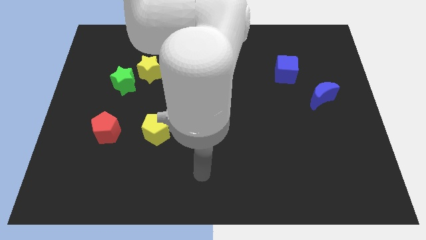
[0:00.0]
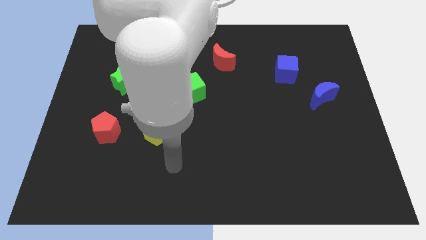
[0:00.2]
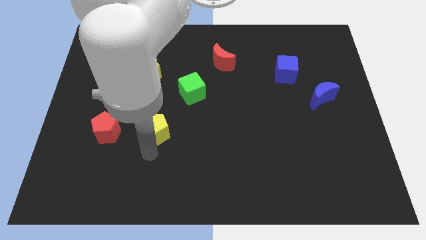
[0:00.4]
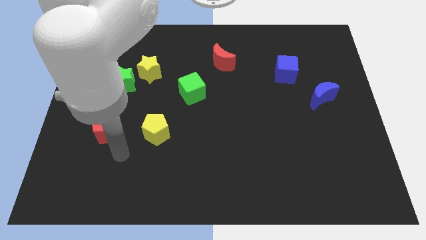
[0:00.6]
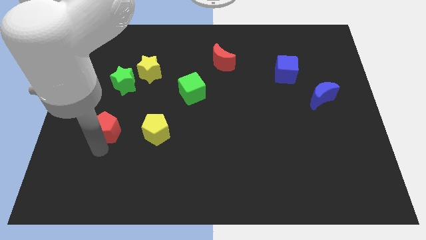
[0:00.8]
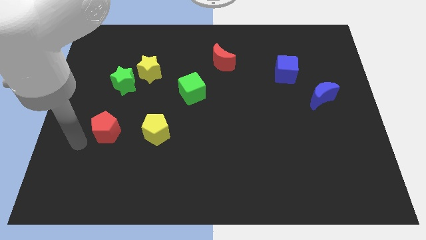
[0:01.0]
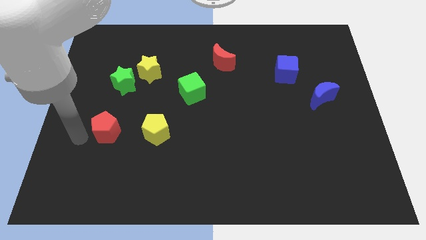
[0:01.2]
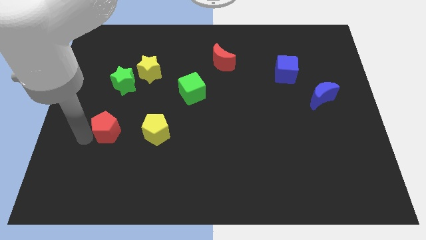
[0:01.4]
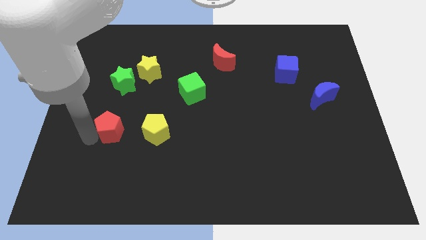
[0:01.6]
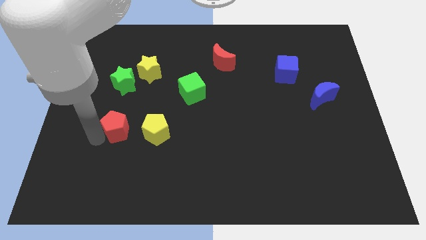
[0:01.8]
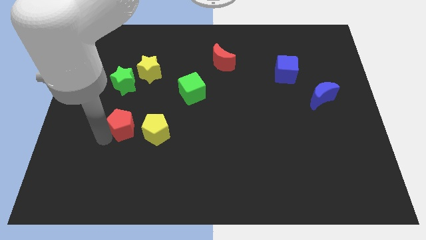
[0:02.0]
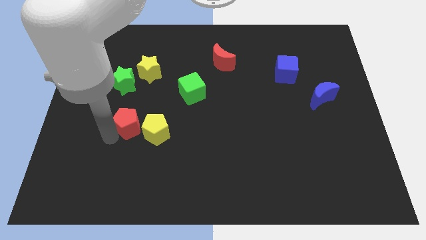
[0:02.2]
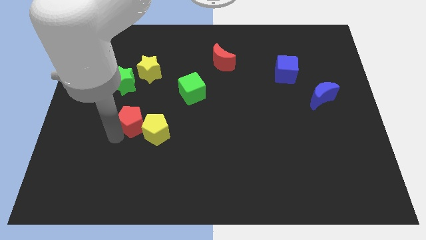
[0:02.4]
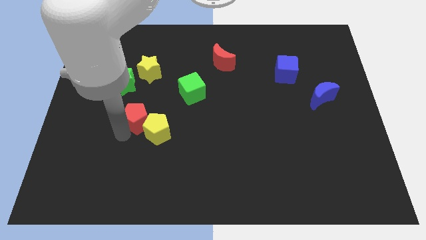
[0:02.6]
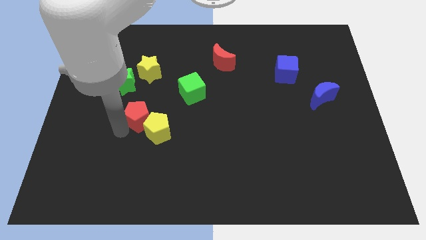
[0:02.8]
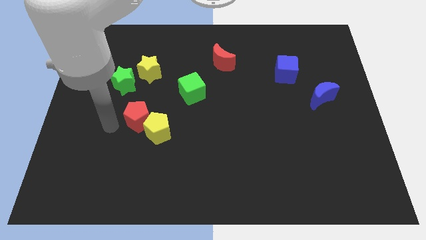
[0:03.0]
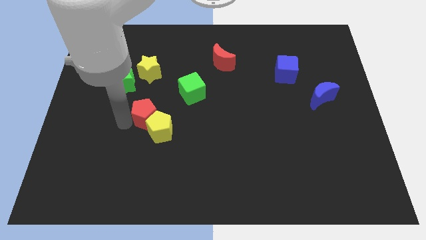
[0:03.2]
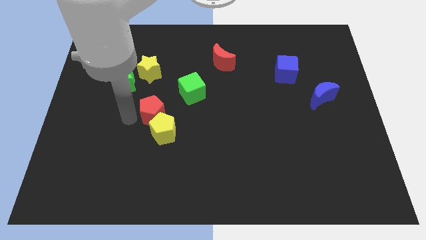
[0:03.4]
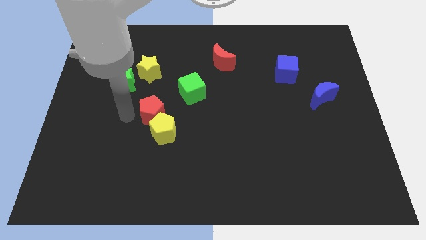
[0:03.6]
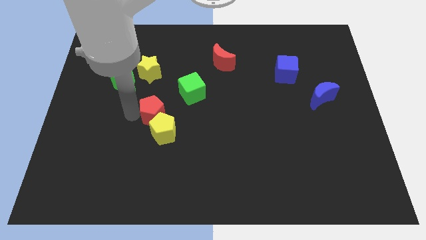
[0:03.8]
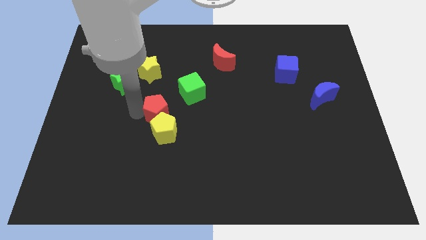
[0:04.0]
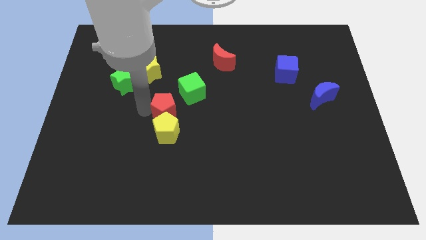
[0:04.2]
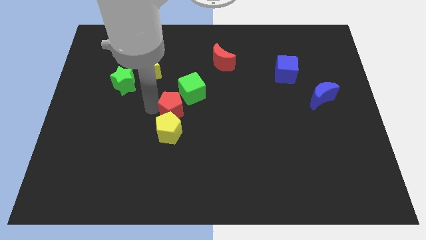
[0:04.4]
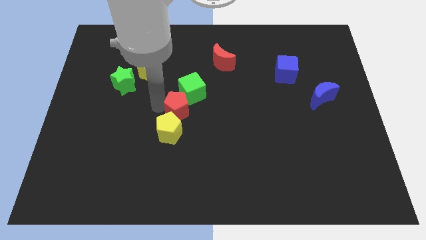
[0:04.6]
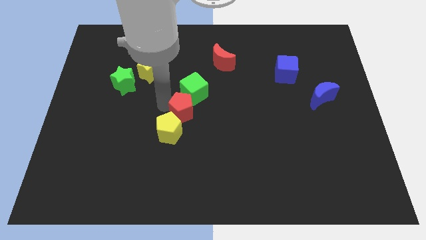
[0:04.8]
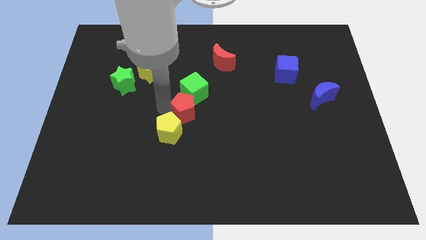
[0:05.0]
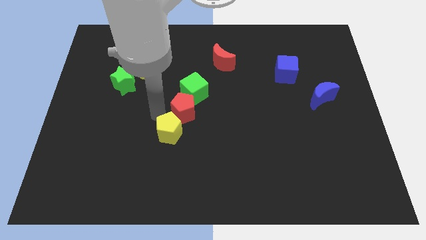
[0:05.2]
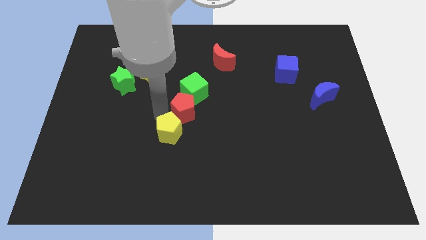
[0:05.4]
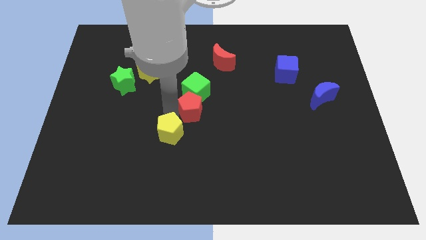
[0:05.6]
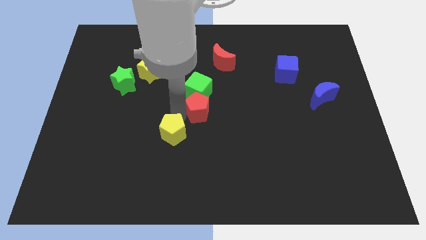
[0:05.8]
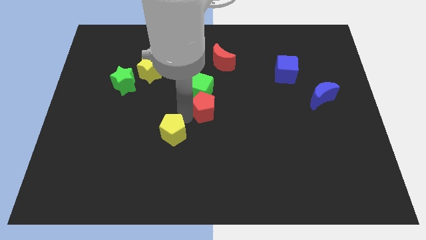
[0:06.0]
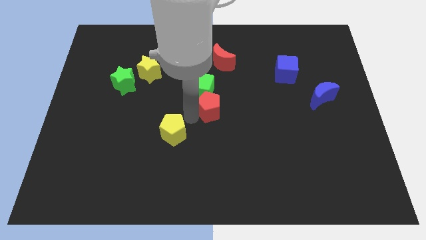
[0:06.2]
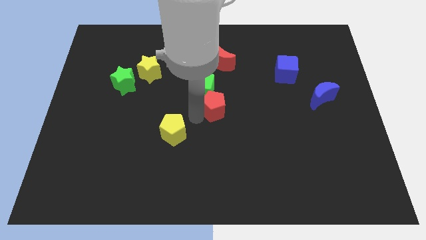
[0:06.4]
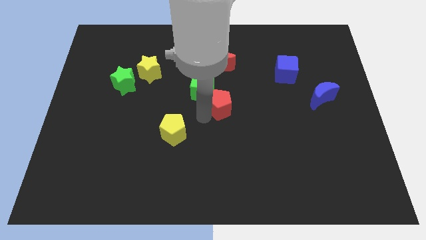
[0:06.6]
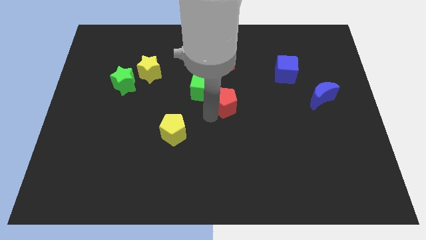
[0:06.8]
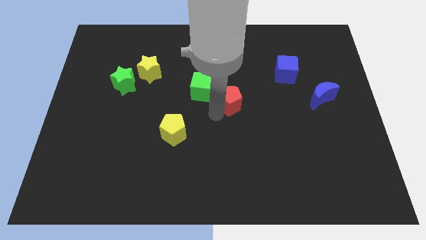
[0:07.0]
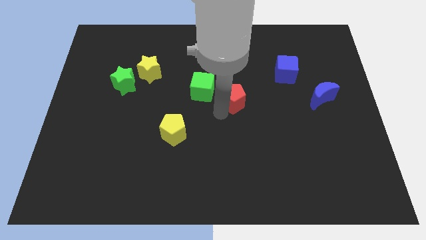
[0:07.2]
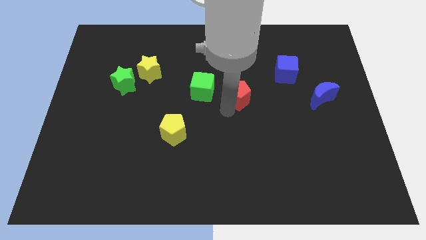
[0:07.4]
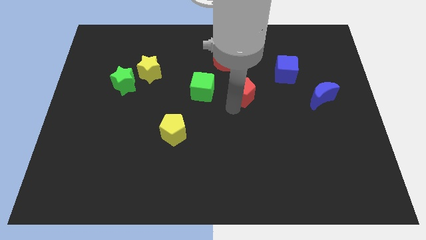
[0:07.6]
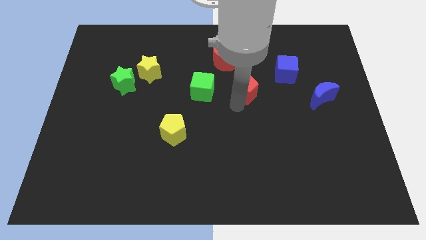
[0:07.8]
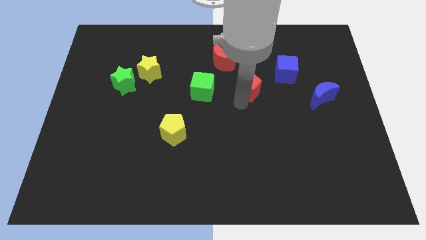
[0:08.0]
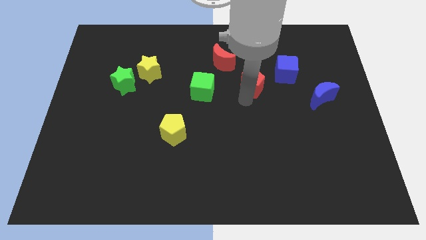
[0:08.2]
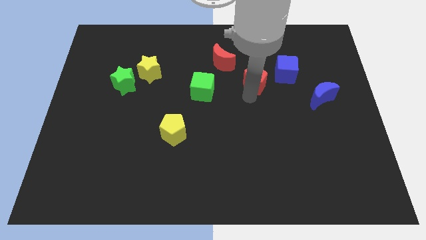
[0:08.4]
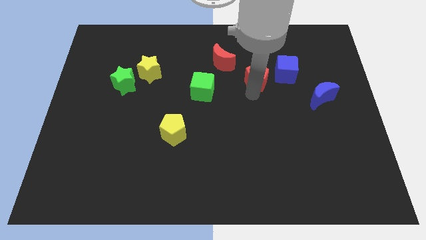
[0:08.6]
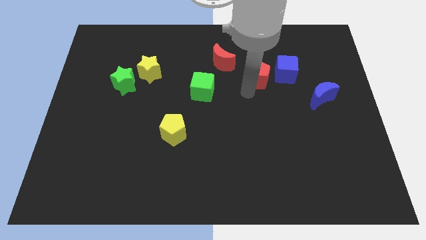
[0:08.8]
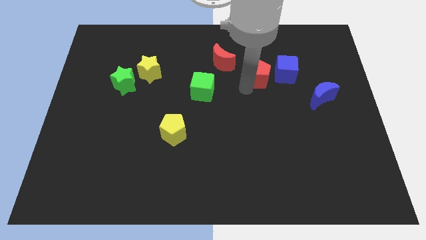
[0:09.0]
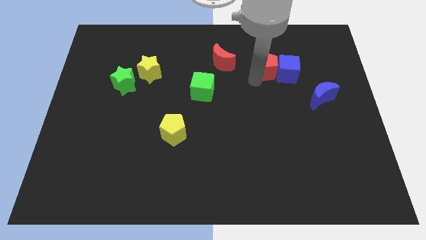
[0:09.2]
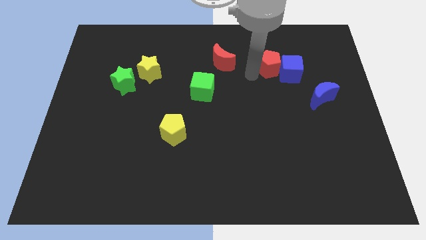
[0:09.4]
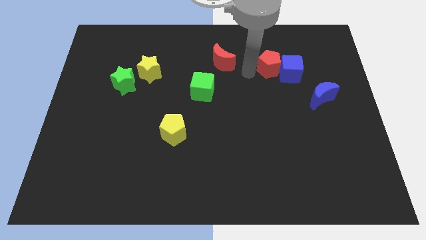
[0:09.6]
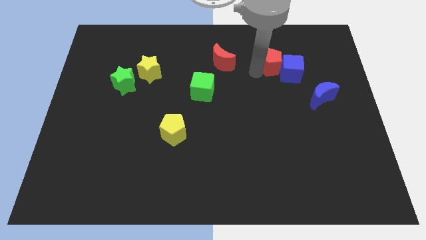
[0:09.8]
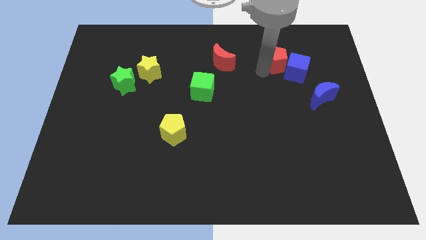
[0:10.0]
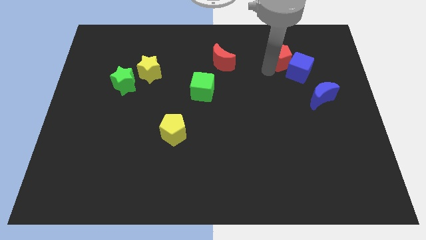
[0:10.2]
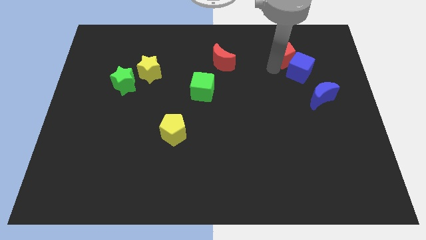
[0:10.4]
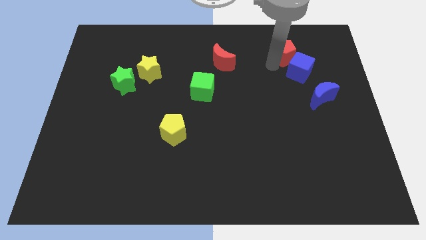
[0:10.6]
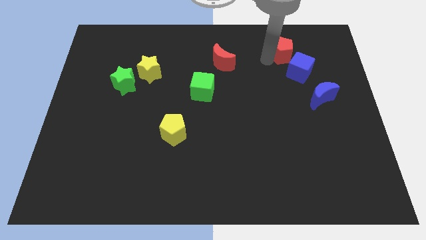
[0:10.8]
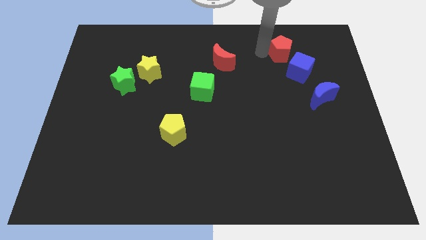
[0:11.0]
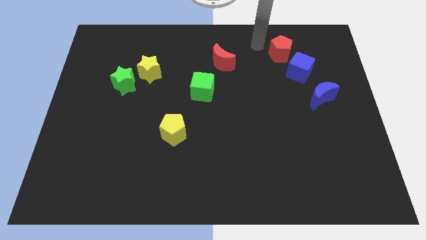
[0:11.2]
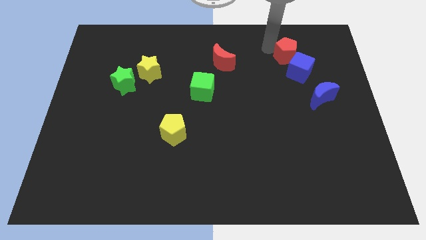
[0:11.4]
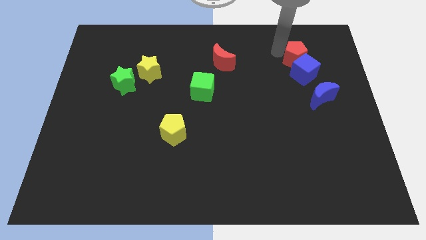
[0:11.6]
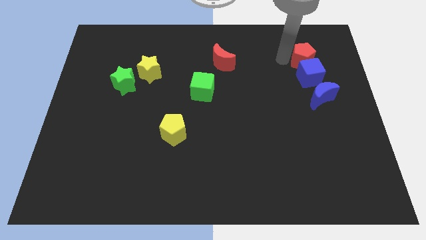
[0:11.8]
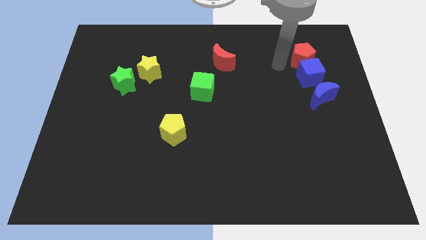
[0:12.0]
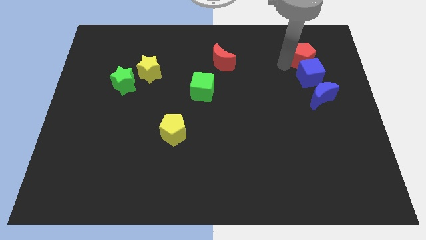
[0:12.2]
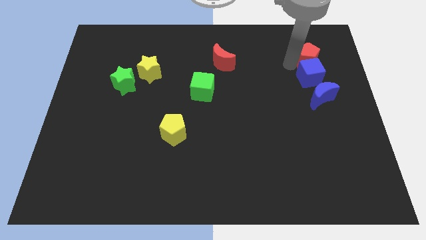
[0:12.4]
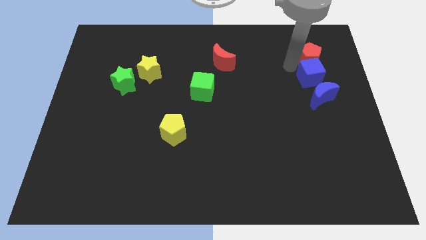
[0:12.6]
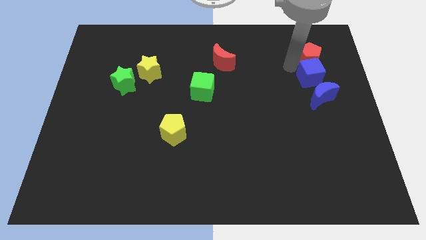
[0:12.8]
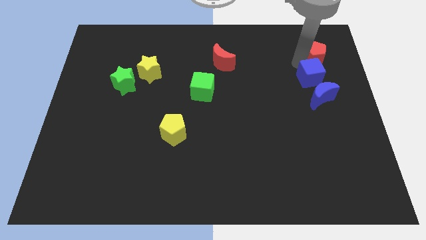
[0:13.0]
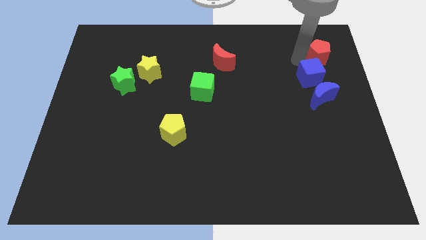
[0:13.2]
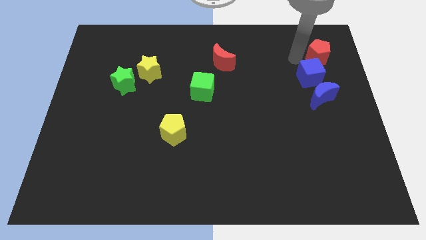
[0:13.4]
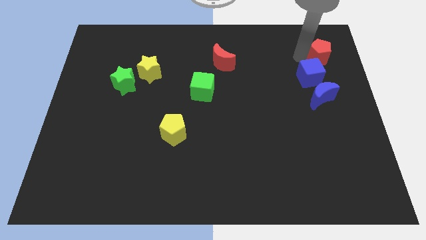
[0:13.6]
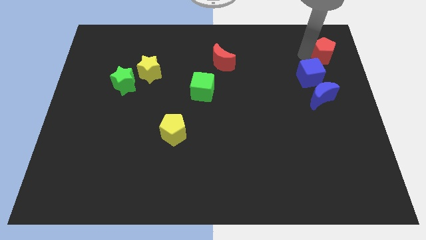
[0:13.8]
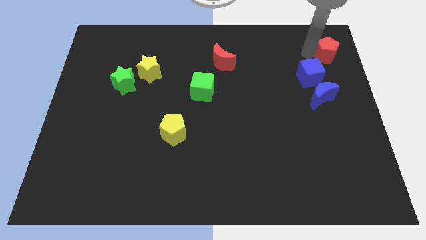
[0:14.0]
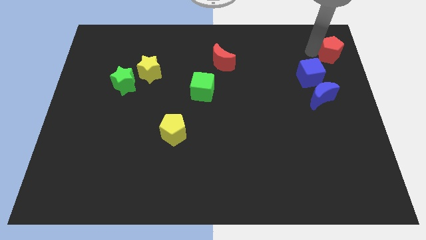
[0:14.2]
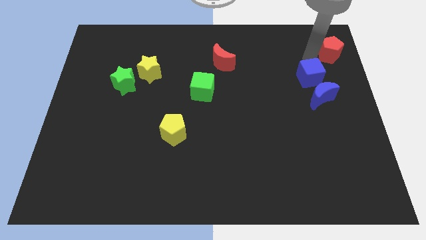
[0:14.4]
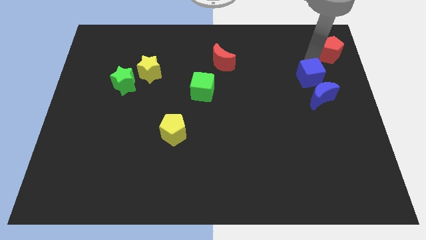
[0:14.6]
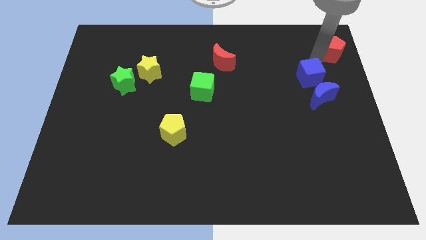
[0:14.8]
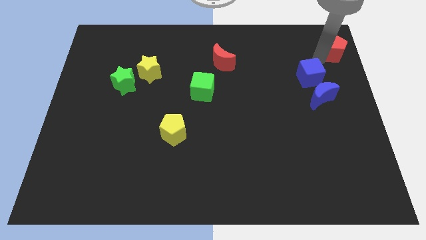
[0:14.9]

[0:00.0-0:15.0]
slide the red pentagon to the upper right corner
